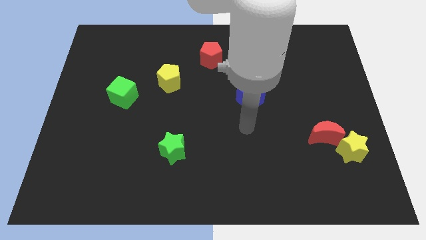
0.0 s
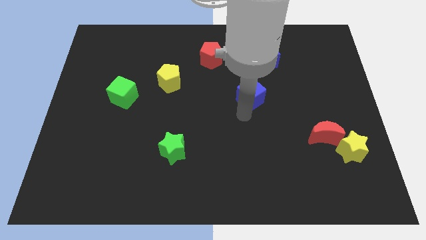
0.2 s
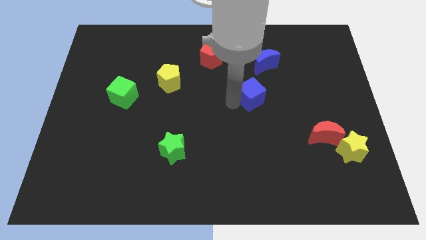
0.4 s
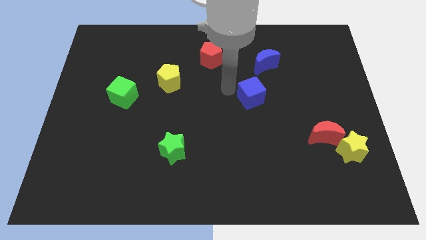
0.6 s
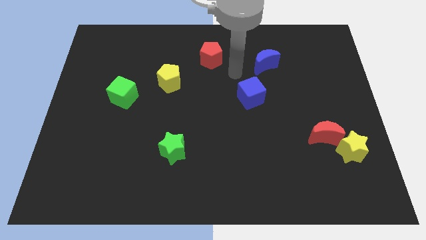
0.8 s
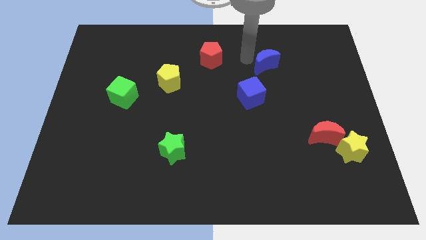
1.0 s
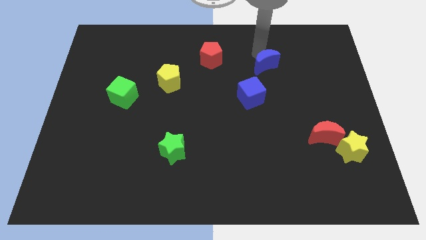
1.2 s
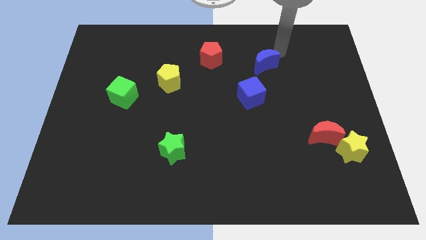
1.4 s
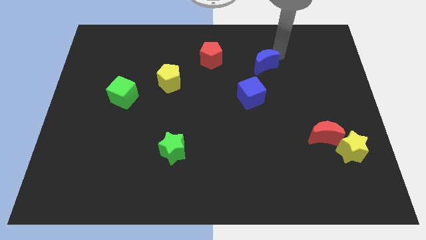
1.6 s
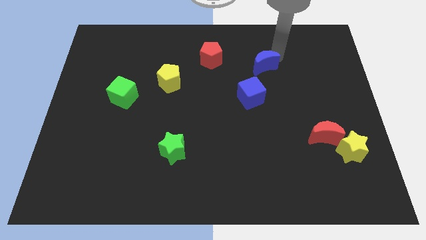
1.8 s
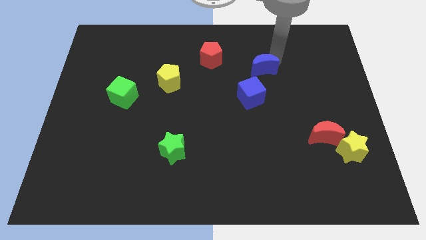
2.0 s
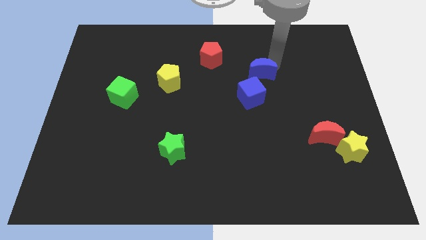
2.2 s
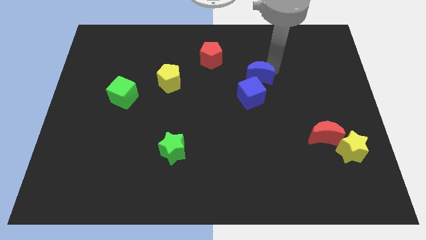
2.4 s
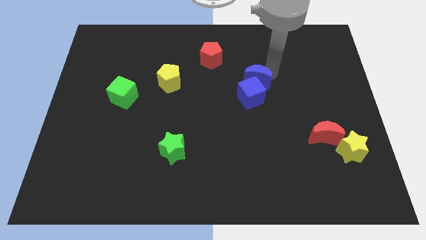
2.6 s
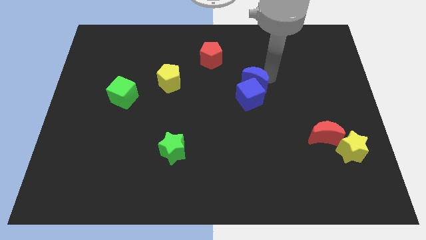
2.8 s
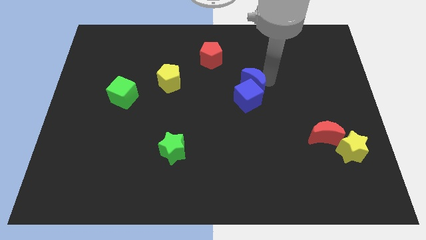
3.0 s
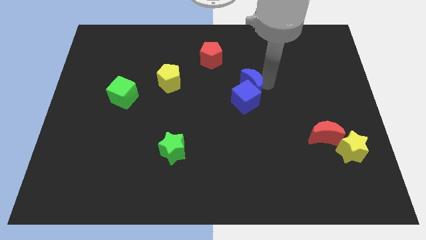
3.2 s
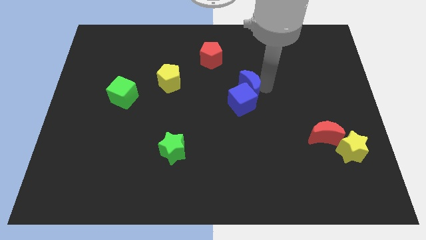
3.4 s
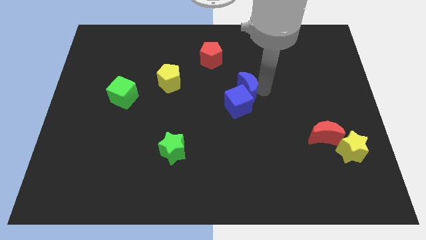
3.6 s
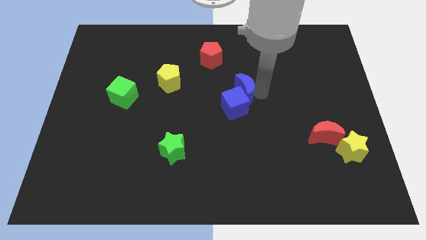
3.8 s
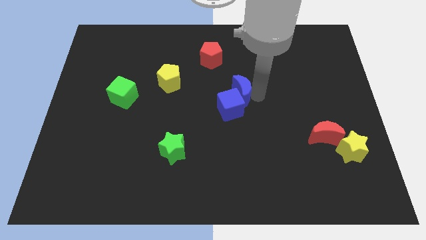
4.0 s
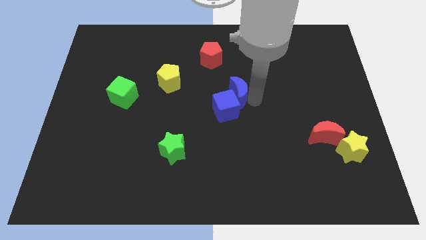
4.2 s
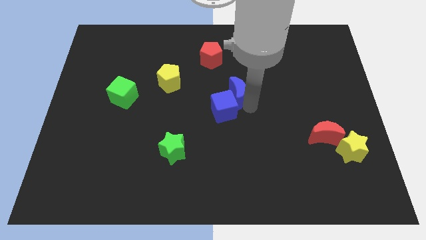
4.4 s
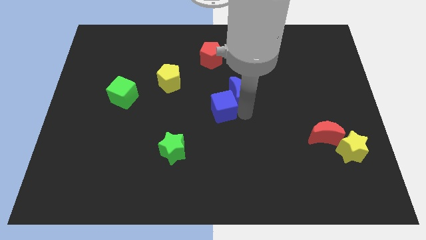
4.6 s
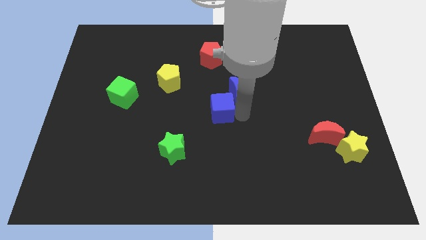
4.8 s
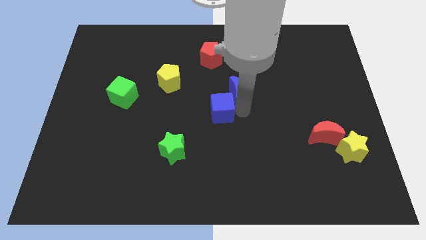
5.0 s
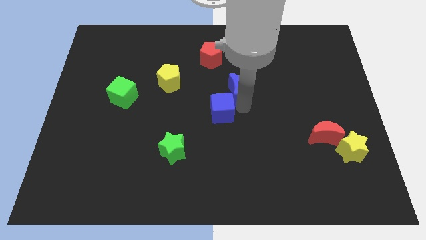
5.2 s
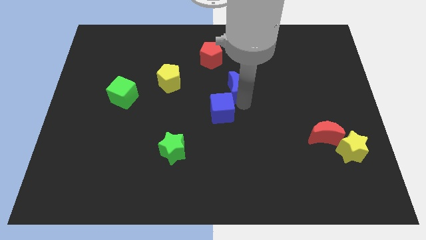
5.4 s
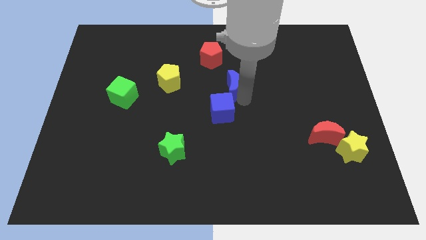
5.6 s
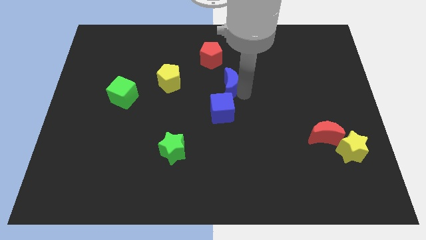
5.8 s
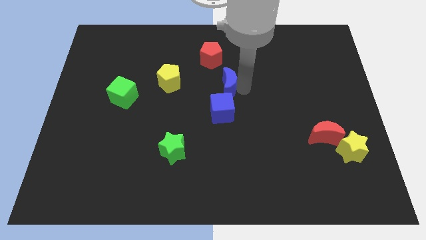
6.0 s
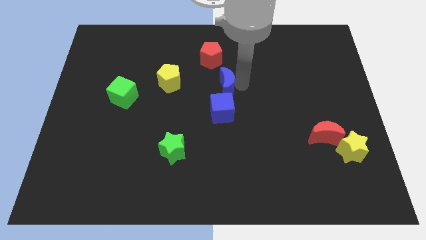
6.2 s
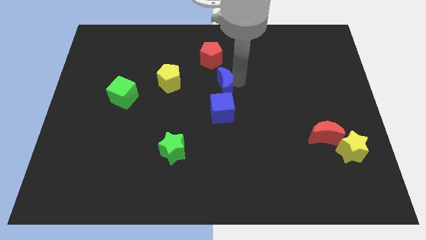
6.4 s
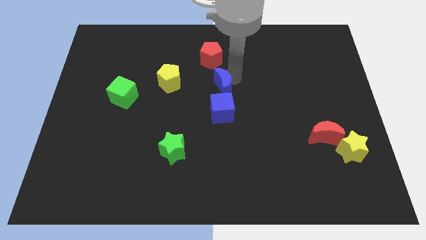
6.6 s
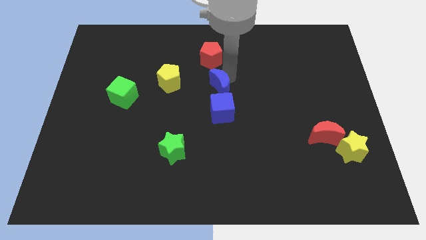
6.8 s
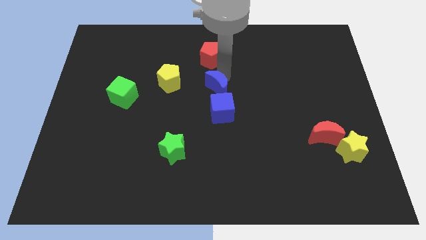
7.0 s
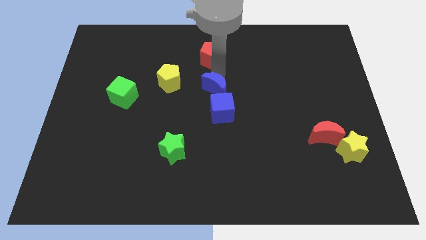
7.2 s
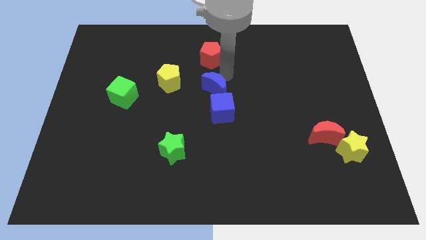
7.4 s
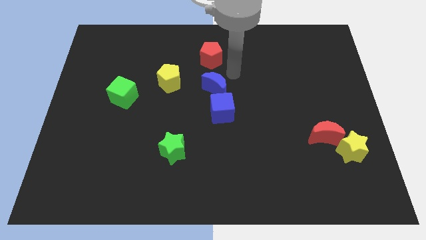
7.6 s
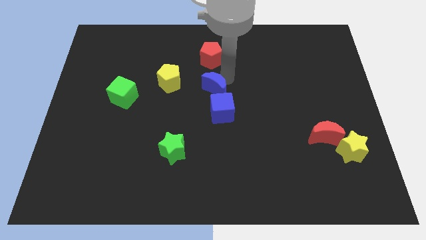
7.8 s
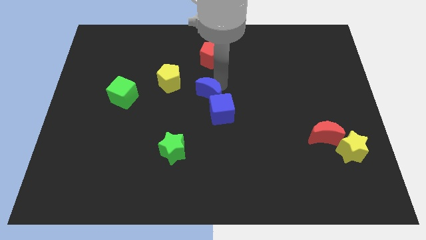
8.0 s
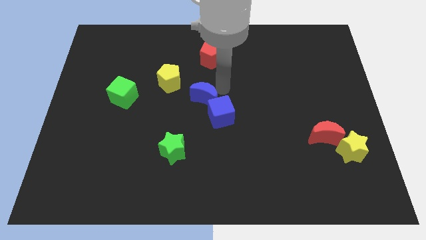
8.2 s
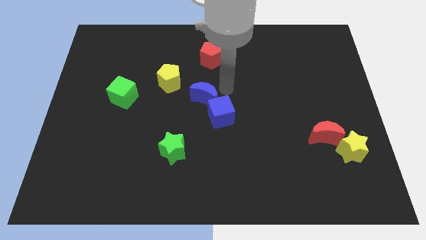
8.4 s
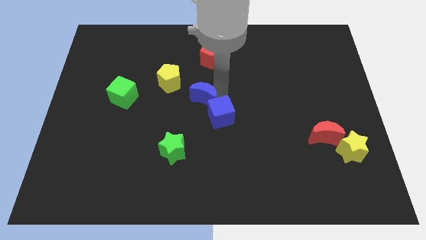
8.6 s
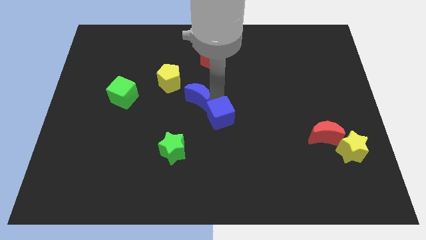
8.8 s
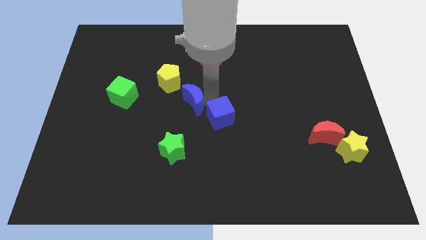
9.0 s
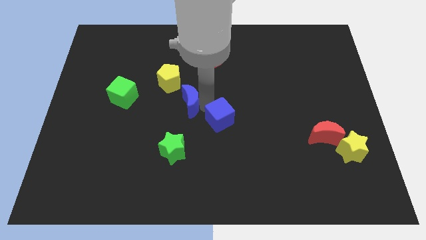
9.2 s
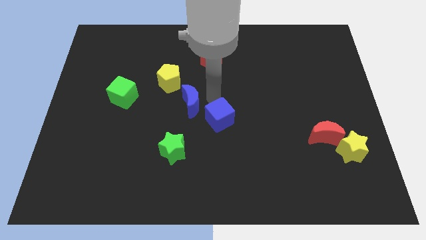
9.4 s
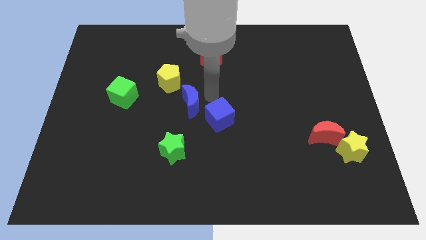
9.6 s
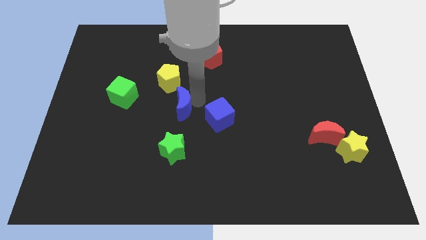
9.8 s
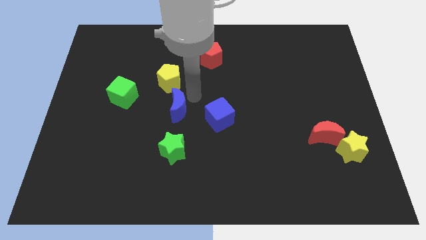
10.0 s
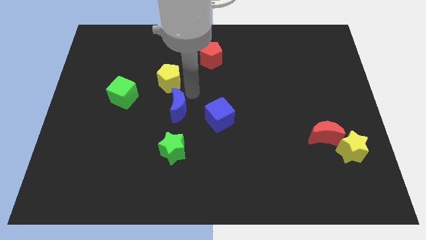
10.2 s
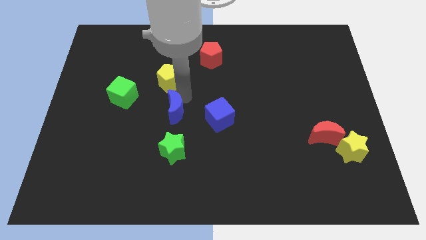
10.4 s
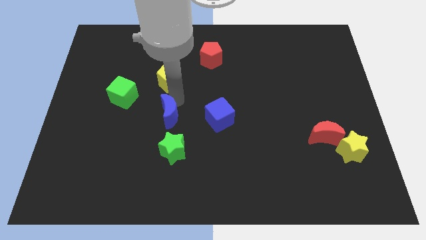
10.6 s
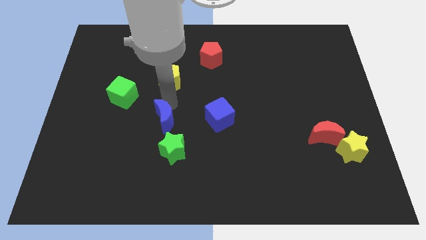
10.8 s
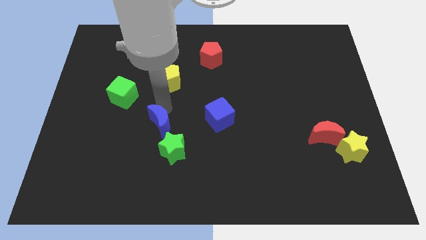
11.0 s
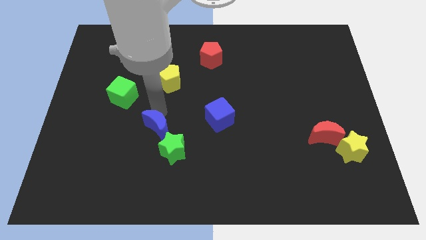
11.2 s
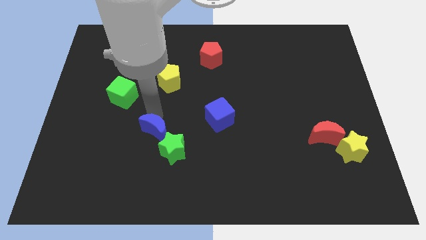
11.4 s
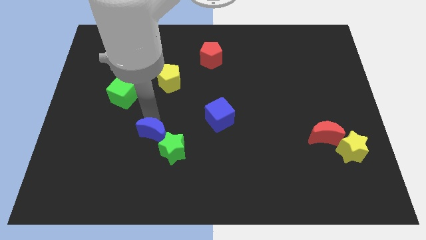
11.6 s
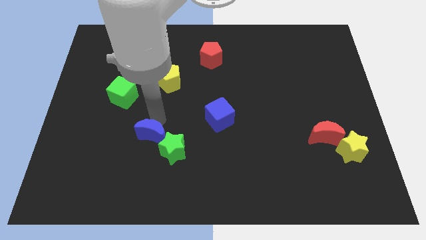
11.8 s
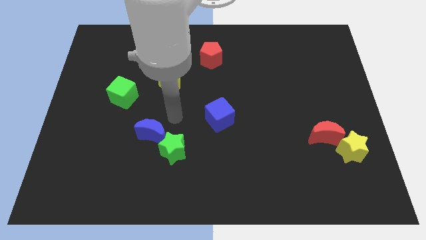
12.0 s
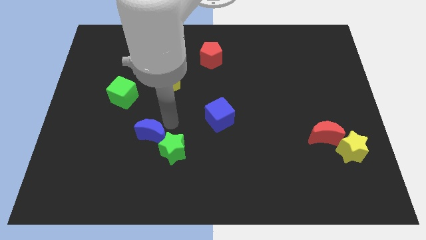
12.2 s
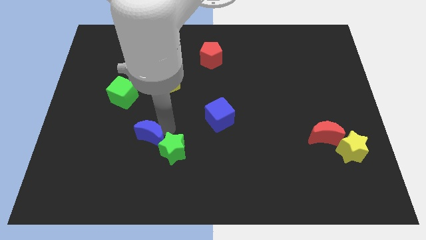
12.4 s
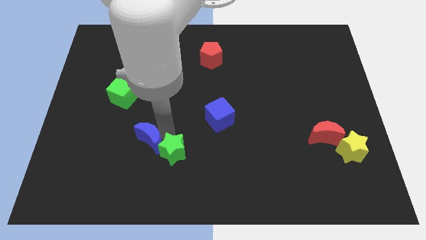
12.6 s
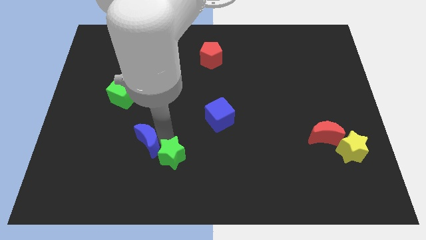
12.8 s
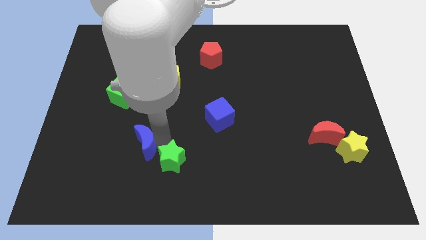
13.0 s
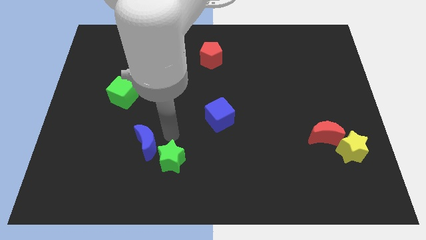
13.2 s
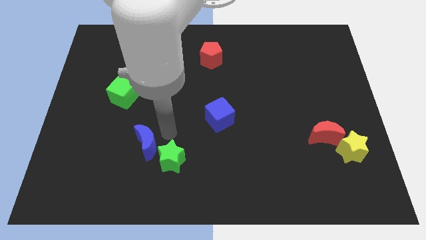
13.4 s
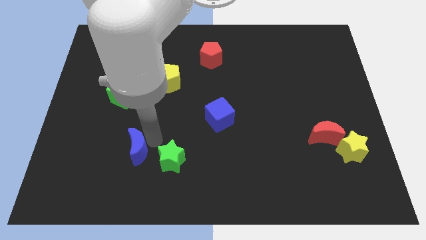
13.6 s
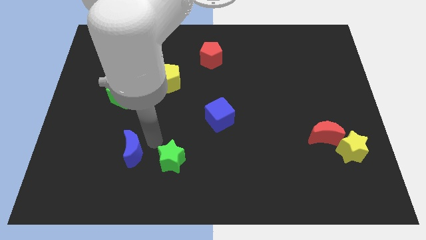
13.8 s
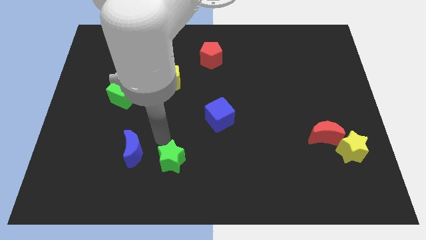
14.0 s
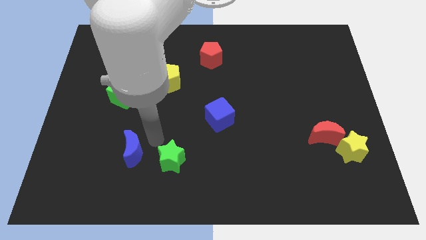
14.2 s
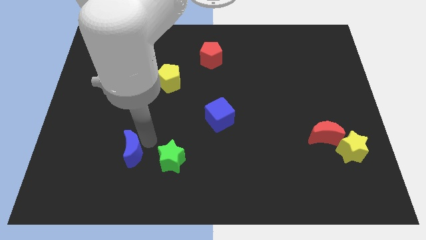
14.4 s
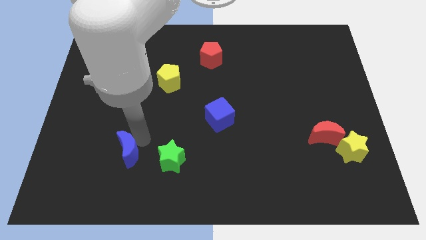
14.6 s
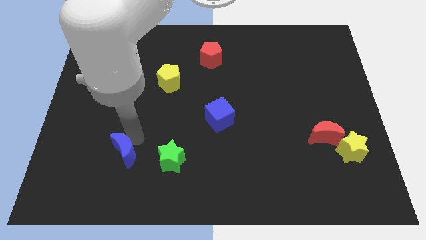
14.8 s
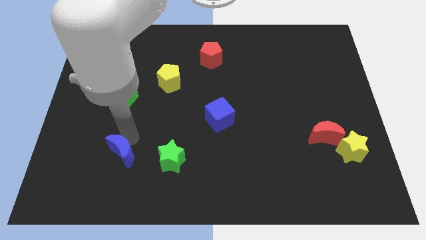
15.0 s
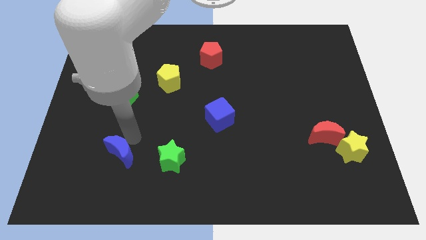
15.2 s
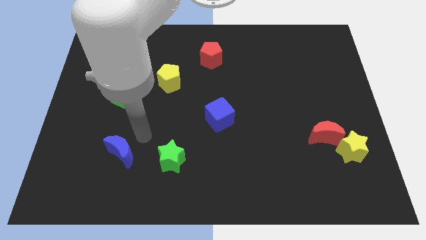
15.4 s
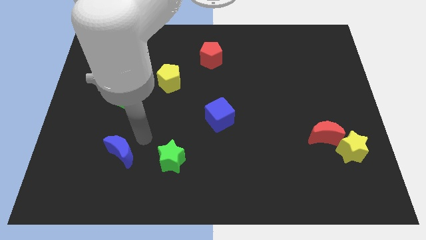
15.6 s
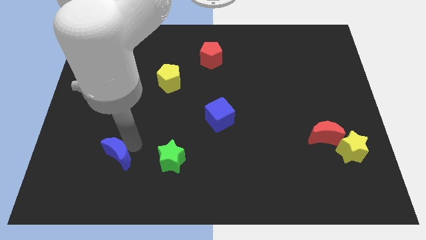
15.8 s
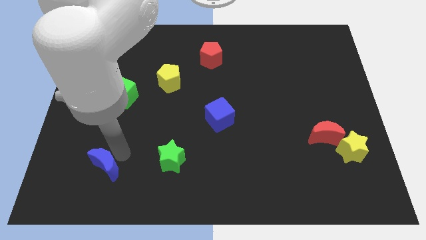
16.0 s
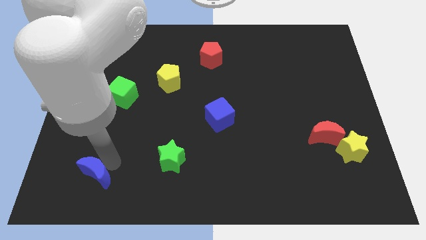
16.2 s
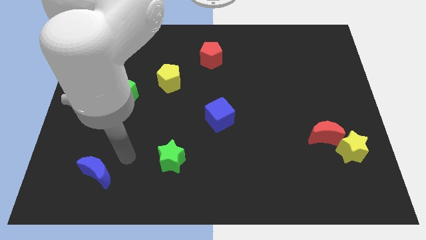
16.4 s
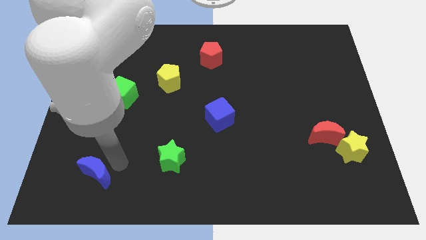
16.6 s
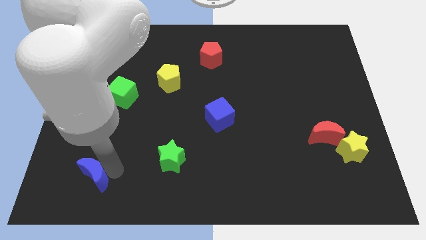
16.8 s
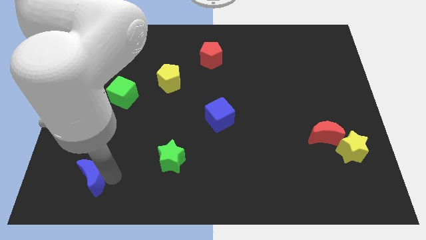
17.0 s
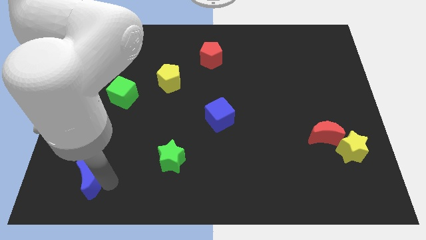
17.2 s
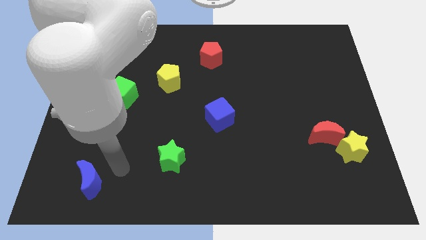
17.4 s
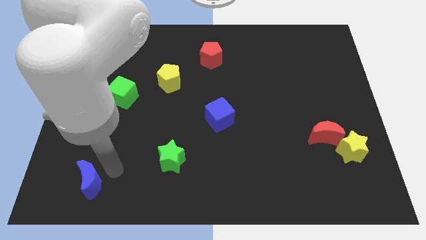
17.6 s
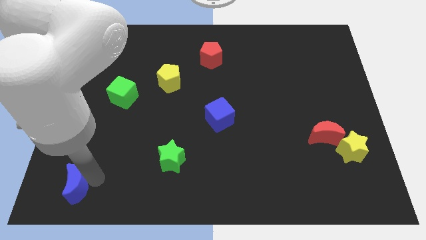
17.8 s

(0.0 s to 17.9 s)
push the blue moon to the bottom left of the board
